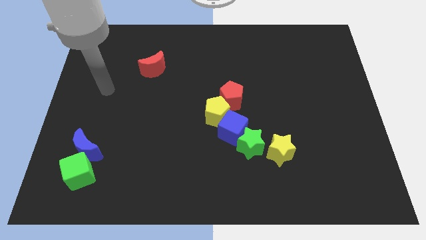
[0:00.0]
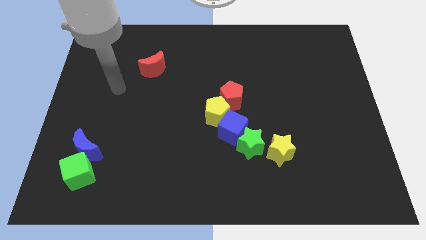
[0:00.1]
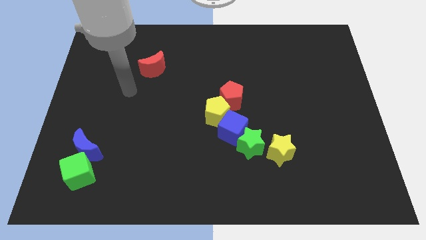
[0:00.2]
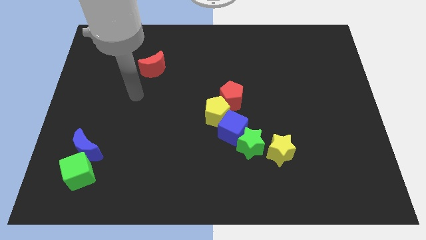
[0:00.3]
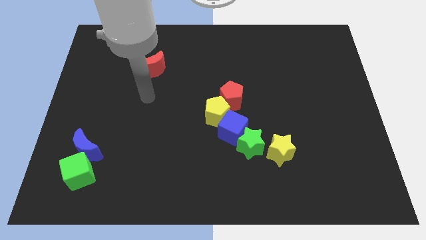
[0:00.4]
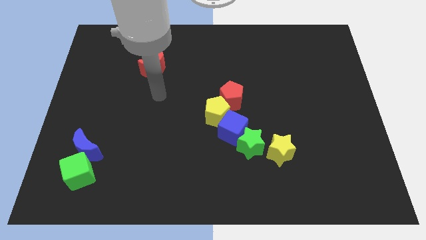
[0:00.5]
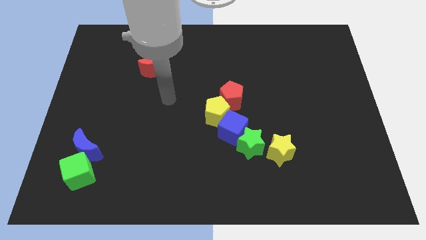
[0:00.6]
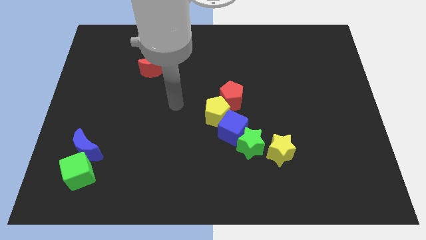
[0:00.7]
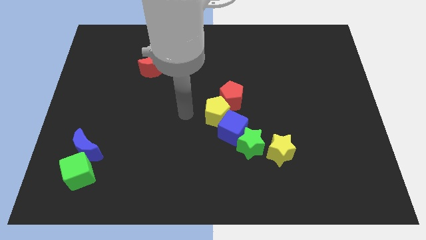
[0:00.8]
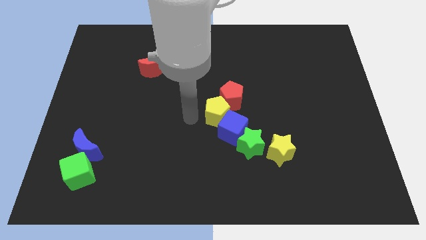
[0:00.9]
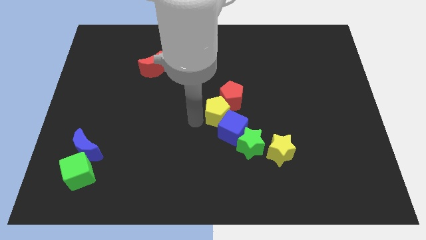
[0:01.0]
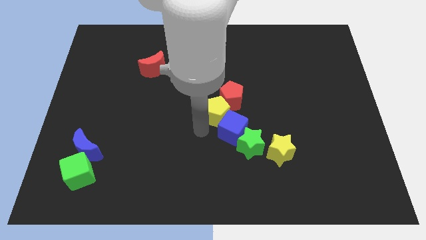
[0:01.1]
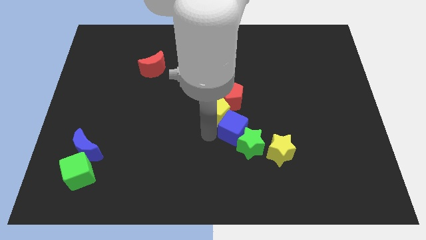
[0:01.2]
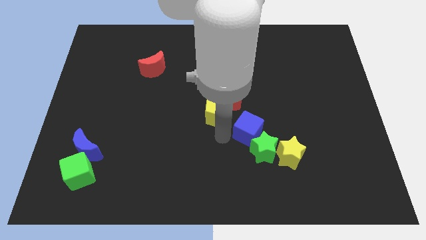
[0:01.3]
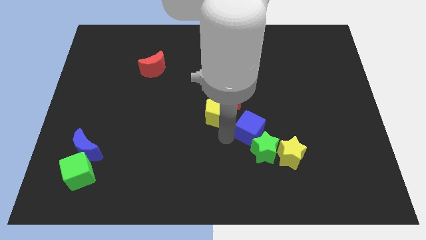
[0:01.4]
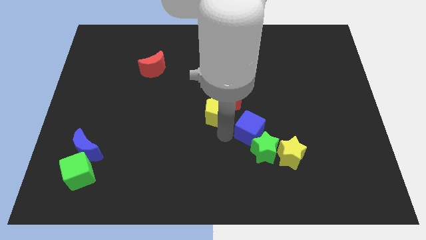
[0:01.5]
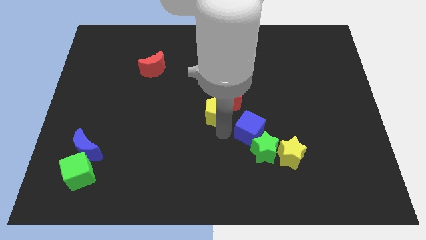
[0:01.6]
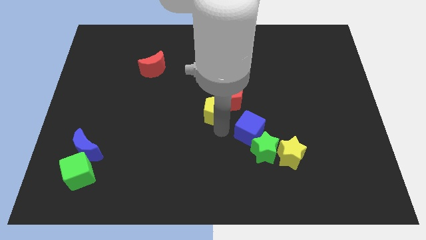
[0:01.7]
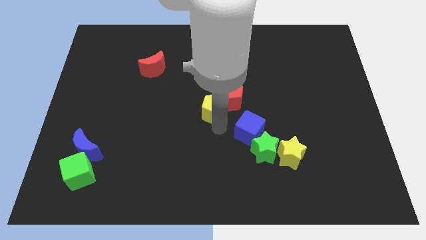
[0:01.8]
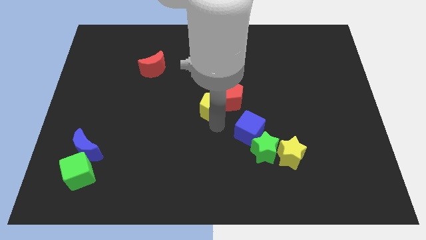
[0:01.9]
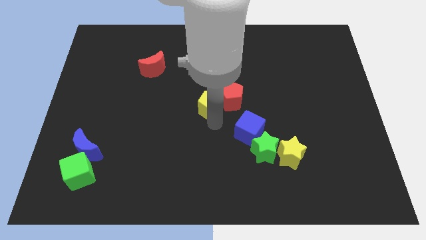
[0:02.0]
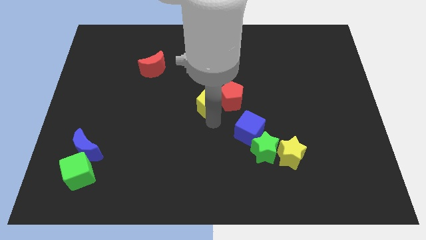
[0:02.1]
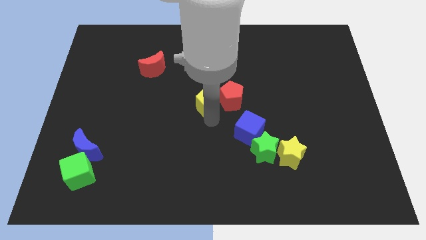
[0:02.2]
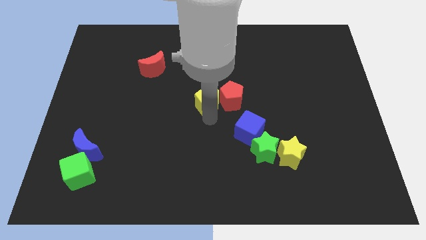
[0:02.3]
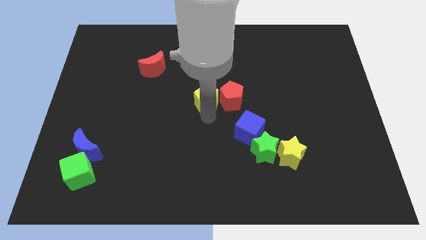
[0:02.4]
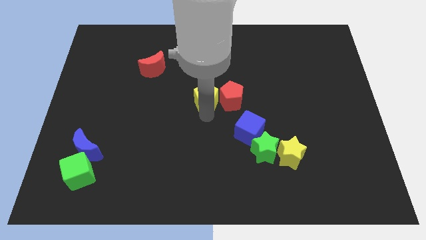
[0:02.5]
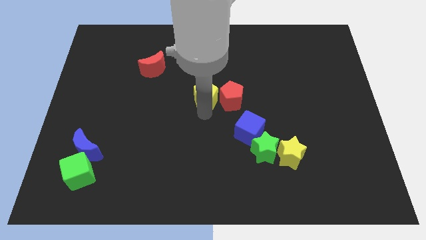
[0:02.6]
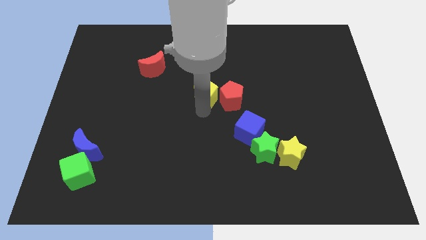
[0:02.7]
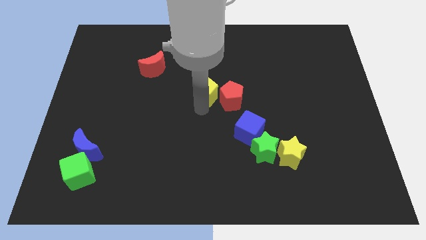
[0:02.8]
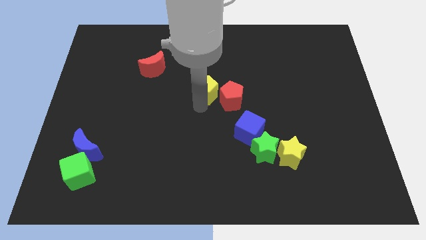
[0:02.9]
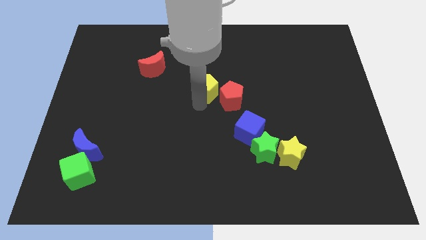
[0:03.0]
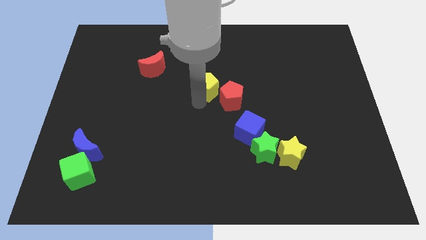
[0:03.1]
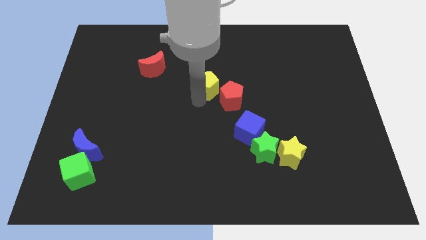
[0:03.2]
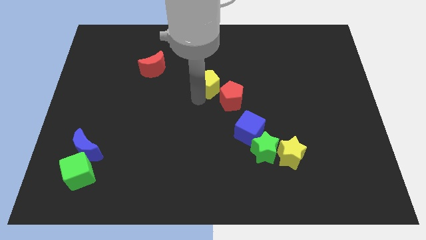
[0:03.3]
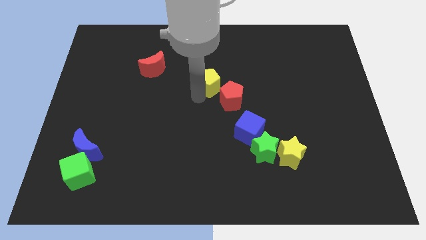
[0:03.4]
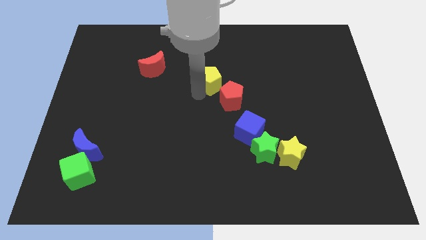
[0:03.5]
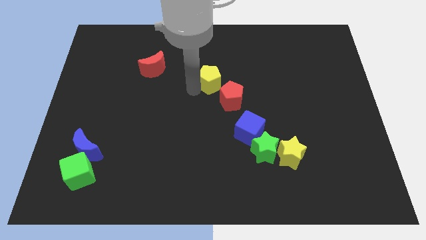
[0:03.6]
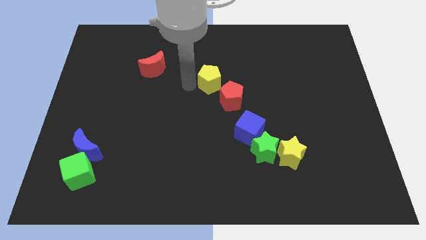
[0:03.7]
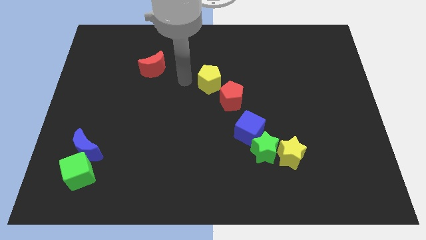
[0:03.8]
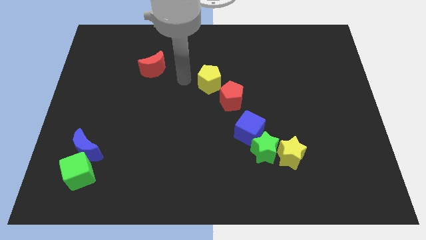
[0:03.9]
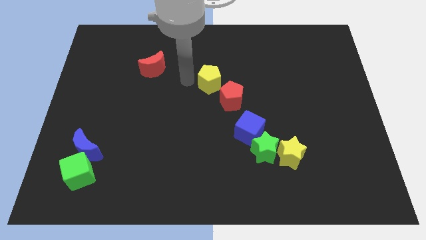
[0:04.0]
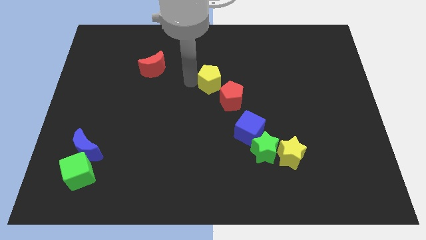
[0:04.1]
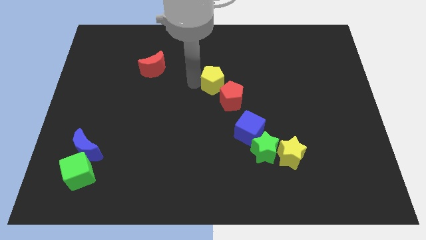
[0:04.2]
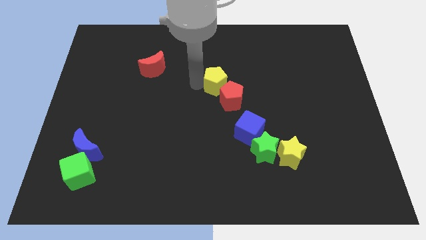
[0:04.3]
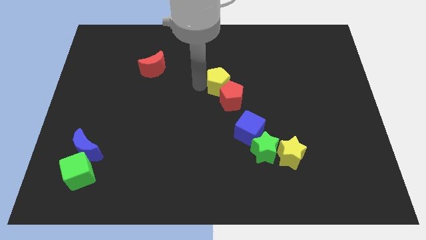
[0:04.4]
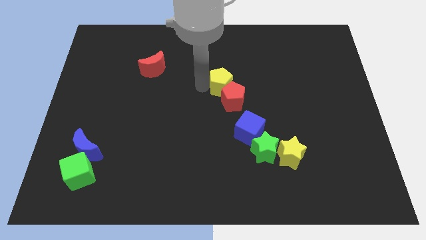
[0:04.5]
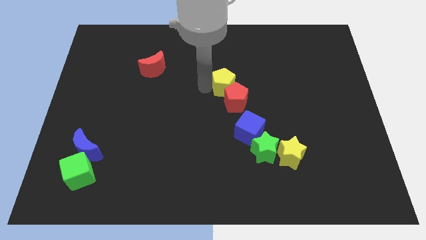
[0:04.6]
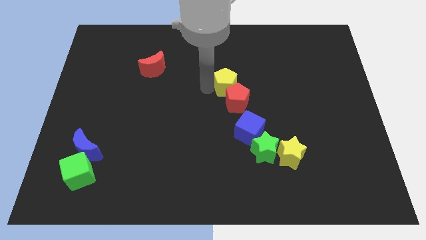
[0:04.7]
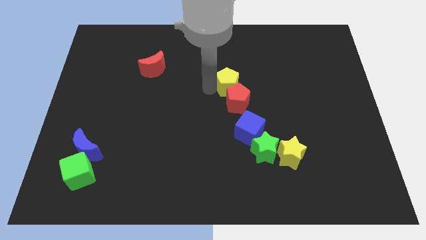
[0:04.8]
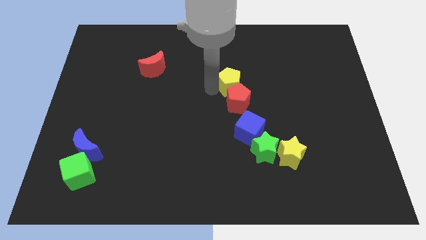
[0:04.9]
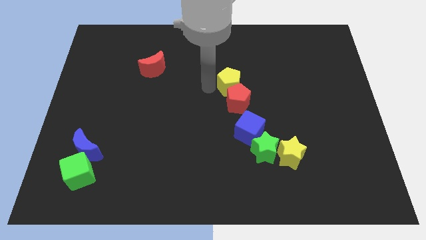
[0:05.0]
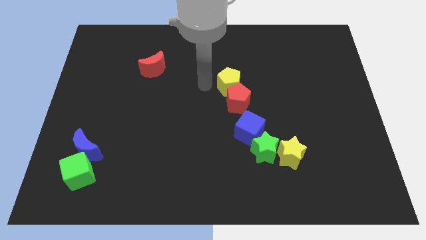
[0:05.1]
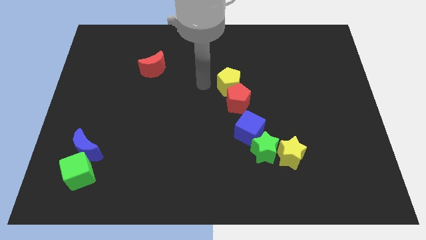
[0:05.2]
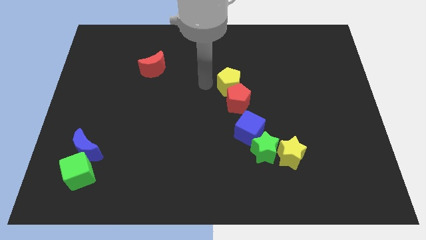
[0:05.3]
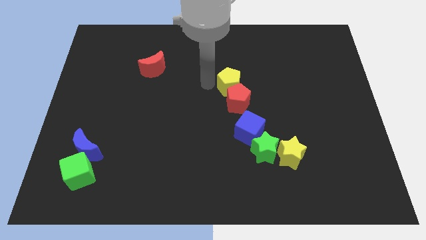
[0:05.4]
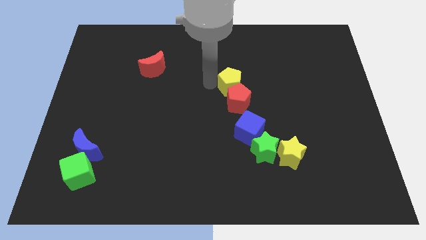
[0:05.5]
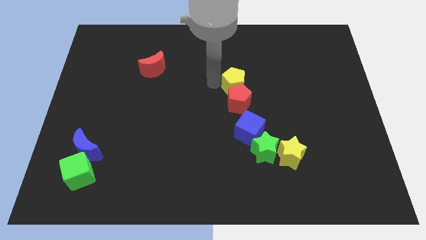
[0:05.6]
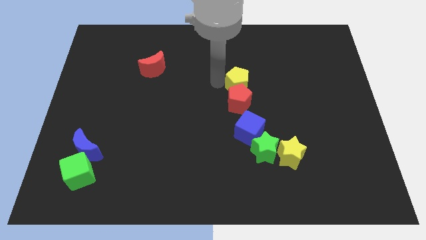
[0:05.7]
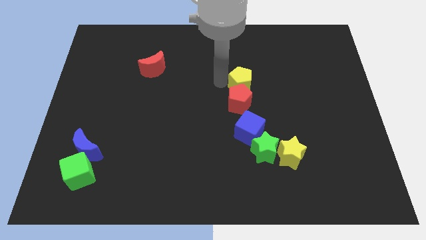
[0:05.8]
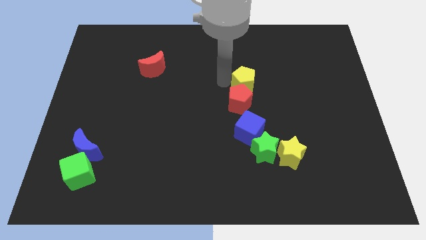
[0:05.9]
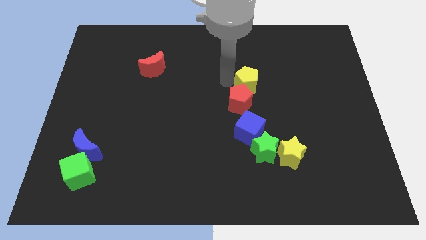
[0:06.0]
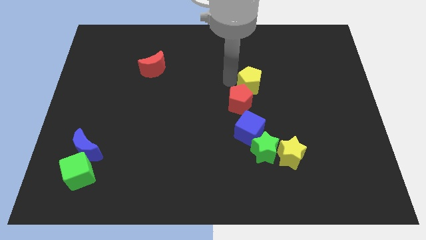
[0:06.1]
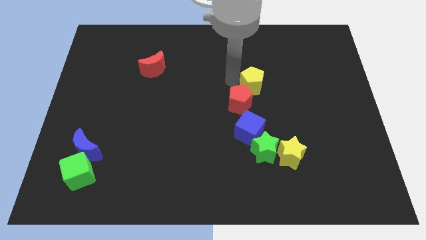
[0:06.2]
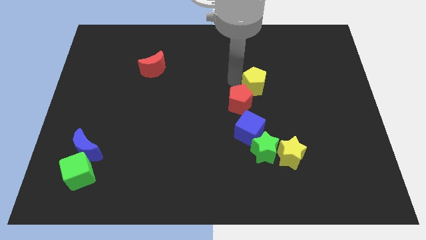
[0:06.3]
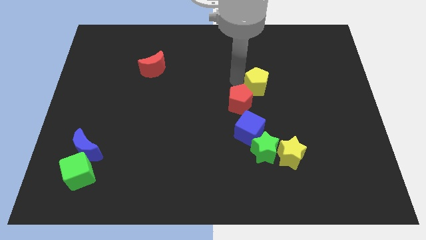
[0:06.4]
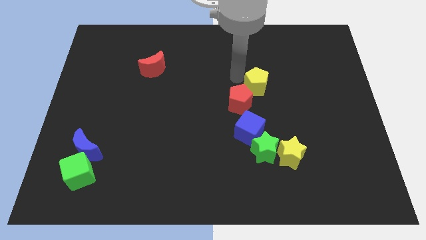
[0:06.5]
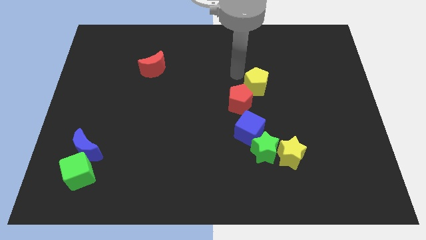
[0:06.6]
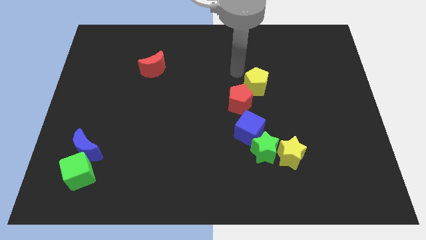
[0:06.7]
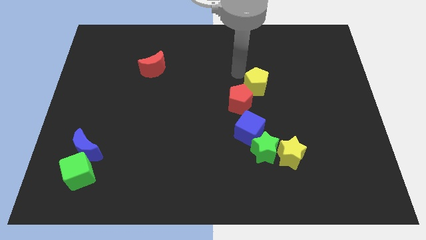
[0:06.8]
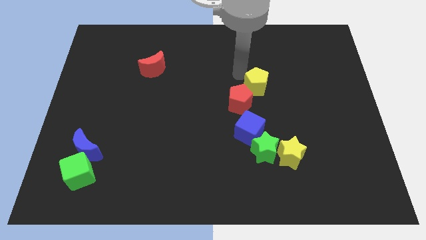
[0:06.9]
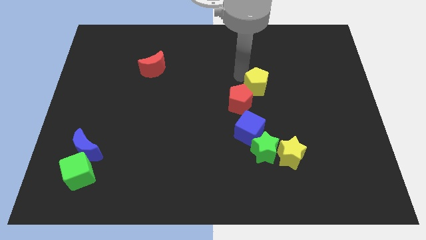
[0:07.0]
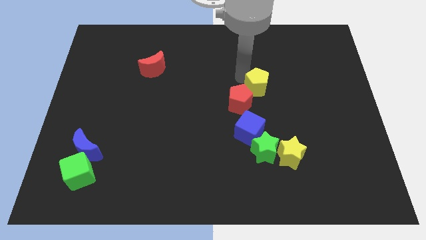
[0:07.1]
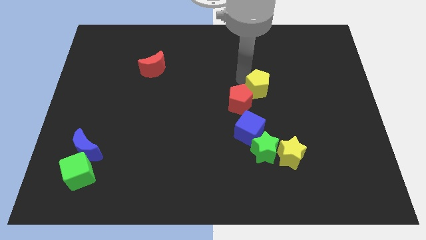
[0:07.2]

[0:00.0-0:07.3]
push the yellow pentagon right slightly

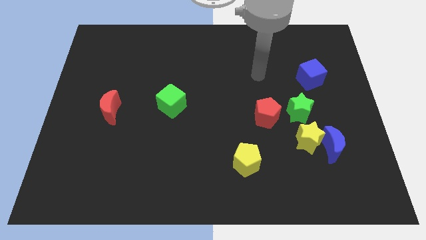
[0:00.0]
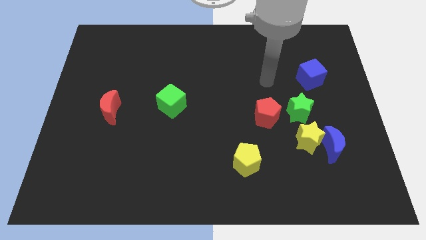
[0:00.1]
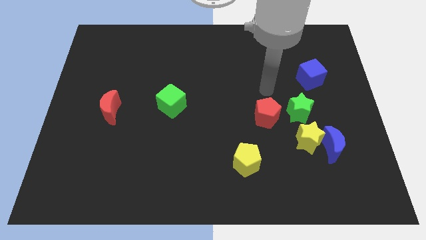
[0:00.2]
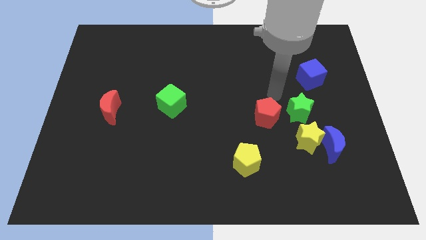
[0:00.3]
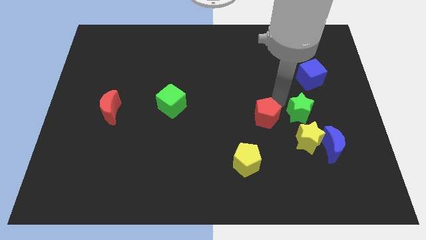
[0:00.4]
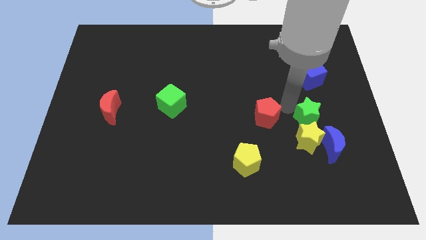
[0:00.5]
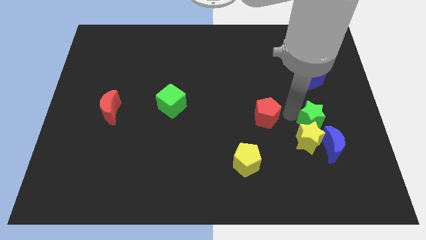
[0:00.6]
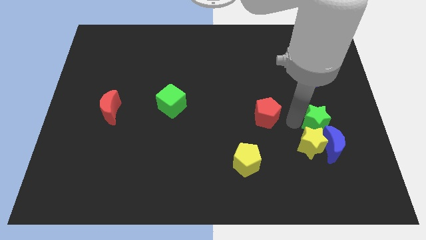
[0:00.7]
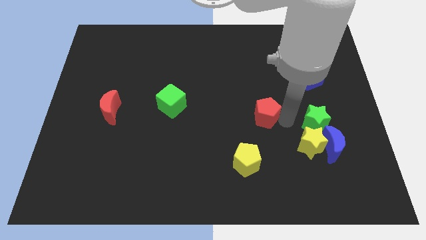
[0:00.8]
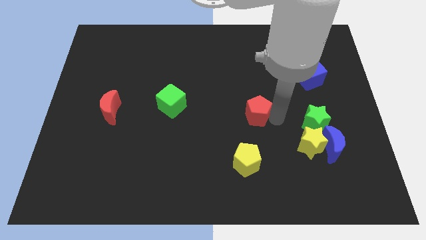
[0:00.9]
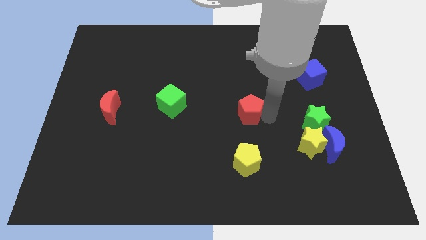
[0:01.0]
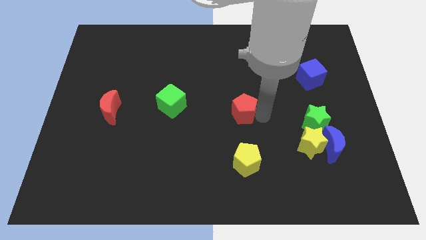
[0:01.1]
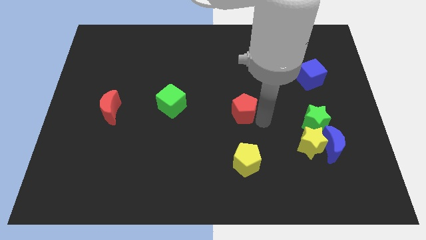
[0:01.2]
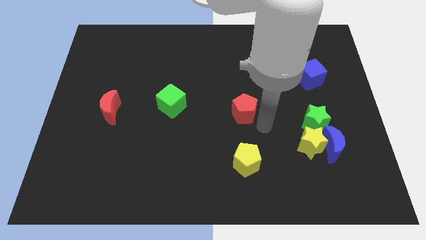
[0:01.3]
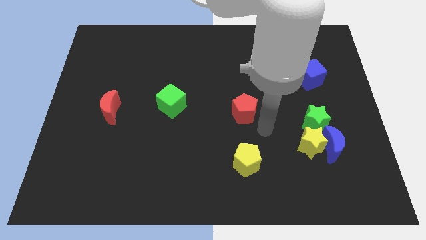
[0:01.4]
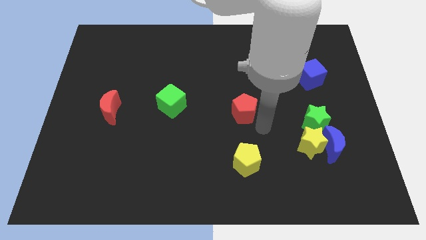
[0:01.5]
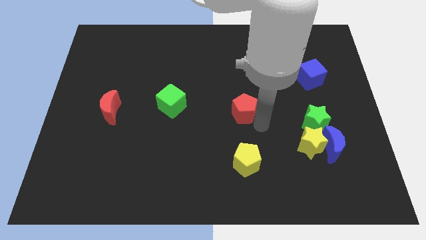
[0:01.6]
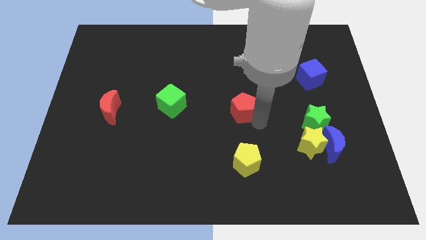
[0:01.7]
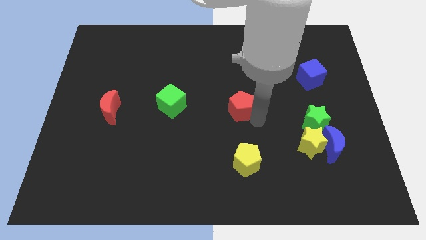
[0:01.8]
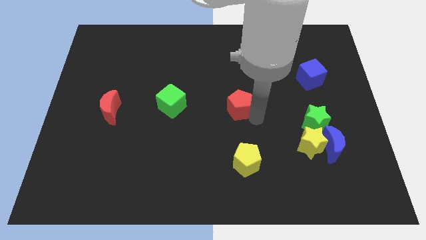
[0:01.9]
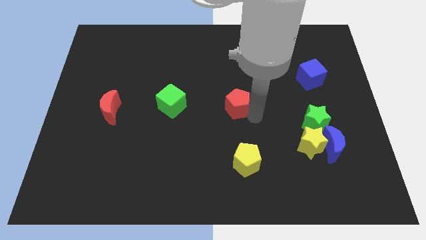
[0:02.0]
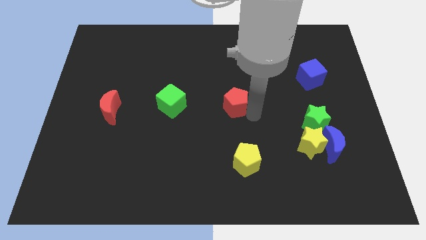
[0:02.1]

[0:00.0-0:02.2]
slightly move the red pentagon upwards and to the left
